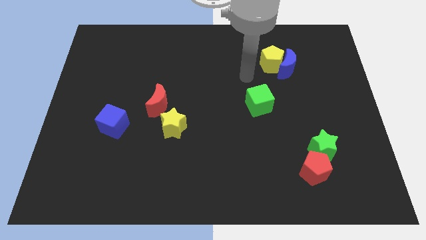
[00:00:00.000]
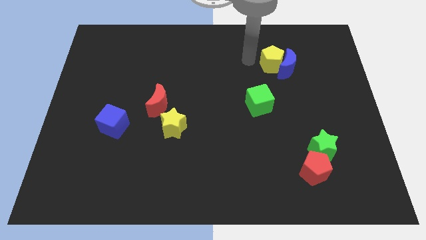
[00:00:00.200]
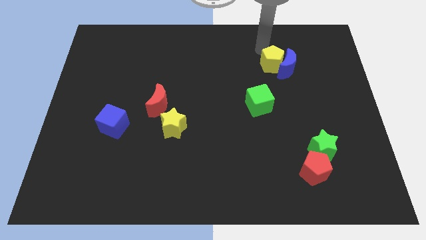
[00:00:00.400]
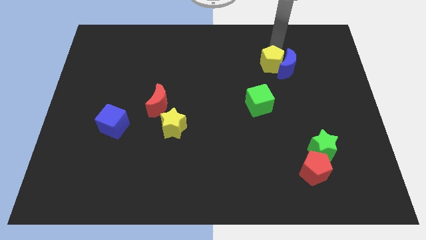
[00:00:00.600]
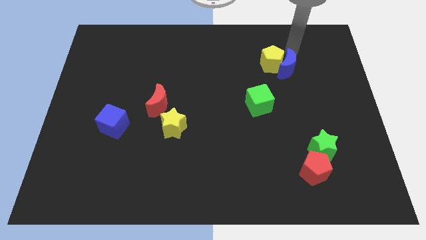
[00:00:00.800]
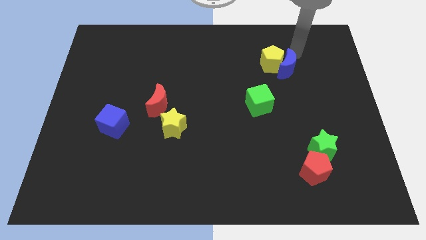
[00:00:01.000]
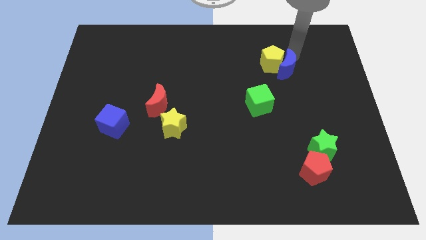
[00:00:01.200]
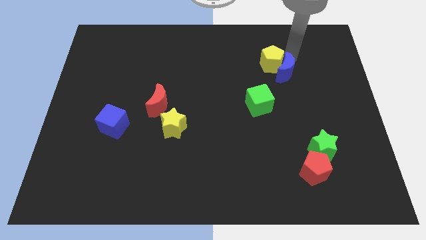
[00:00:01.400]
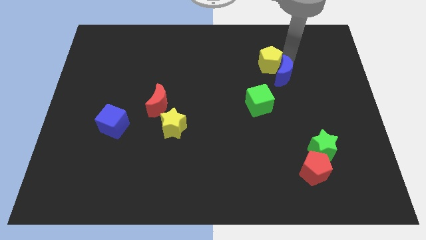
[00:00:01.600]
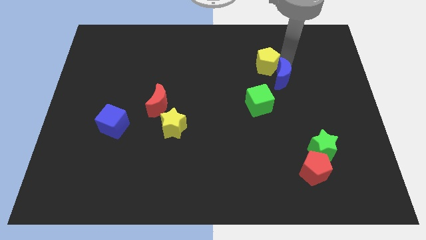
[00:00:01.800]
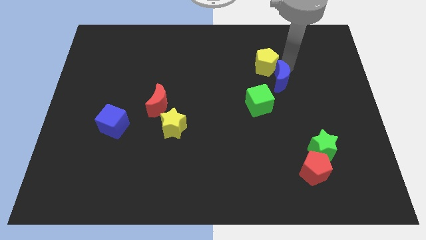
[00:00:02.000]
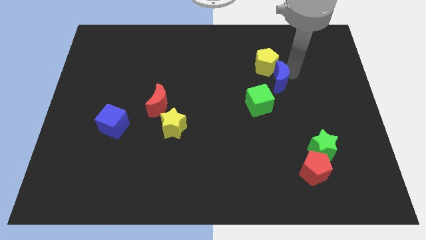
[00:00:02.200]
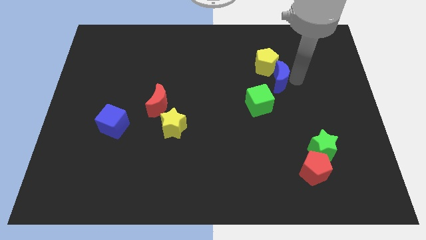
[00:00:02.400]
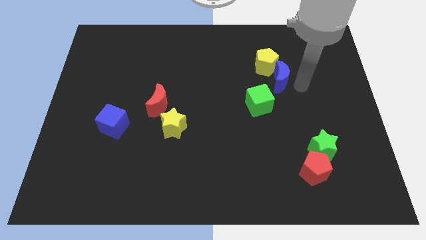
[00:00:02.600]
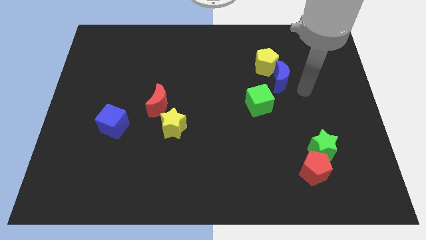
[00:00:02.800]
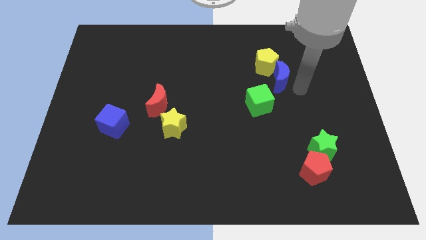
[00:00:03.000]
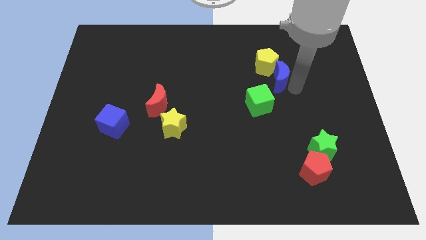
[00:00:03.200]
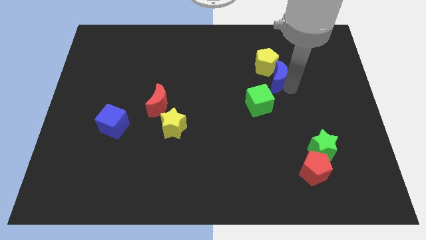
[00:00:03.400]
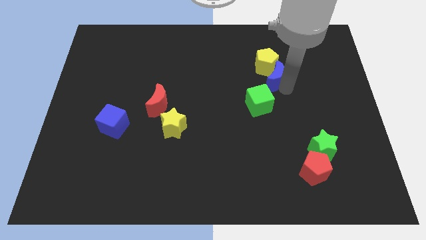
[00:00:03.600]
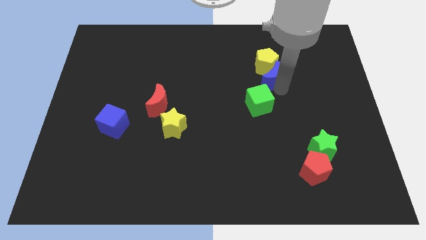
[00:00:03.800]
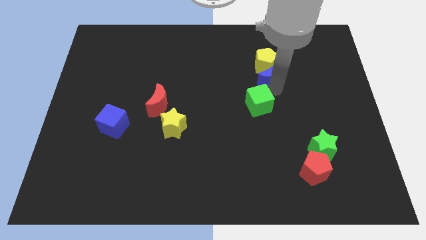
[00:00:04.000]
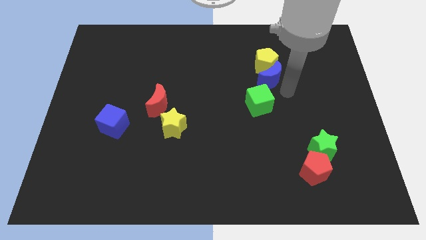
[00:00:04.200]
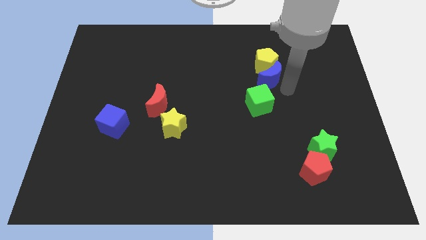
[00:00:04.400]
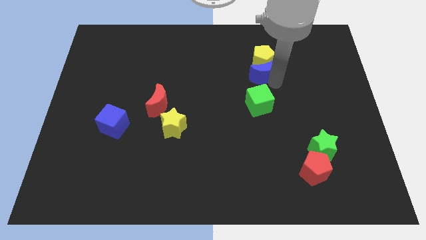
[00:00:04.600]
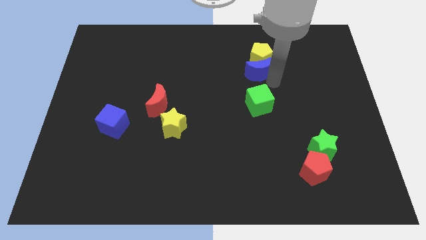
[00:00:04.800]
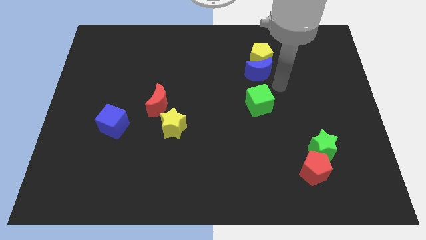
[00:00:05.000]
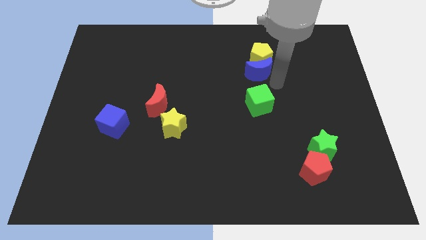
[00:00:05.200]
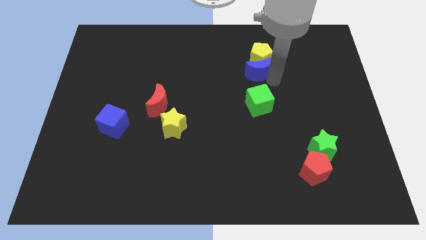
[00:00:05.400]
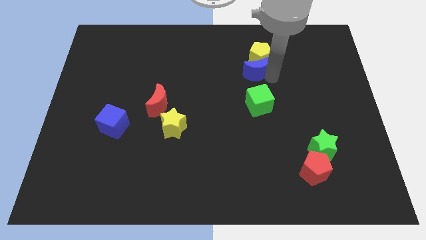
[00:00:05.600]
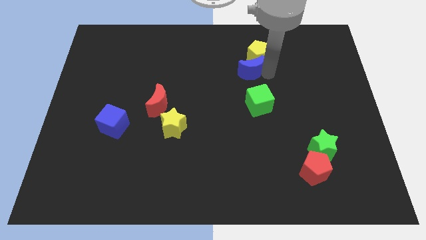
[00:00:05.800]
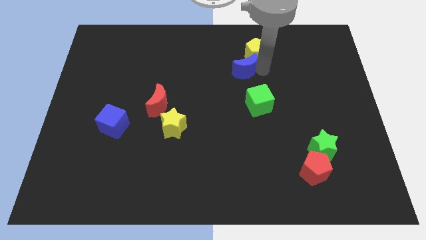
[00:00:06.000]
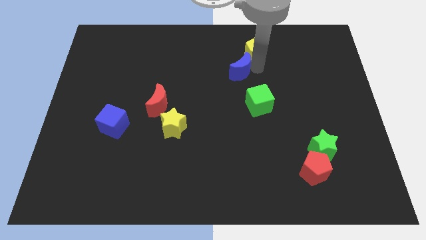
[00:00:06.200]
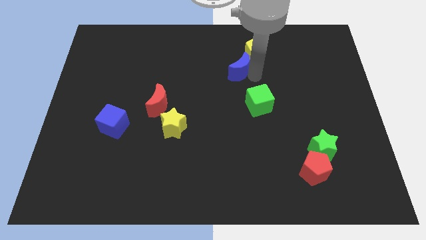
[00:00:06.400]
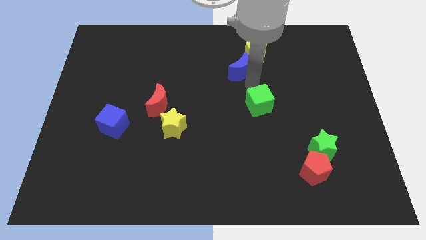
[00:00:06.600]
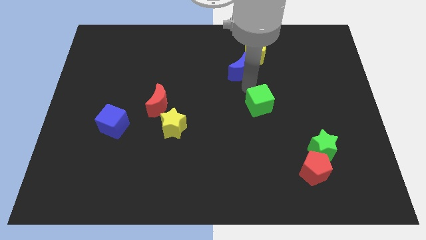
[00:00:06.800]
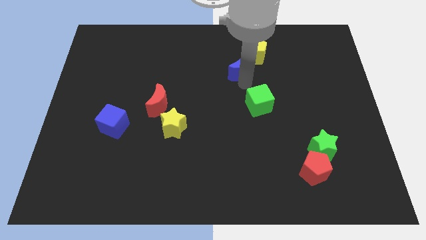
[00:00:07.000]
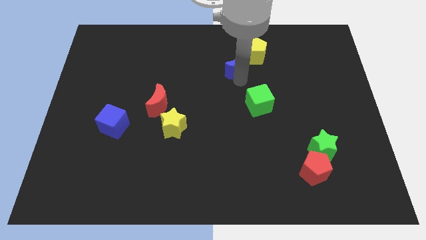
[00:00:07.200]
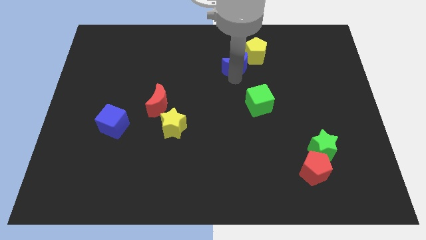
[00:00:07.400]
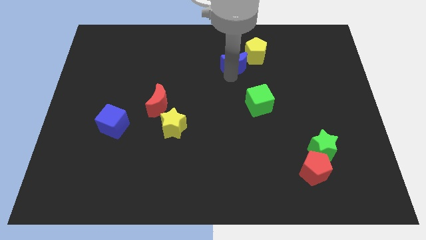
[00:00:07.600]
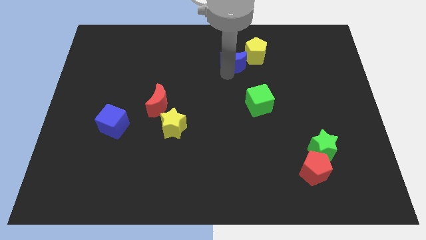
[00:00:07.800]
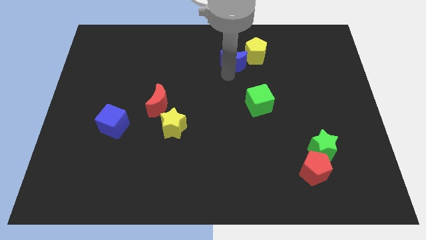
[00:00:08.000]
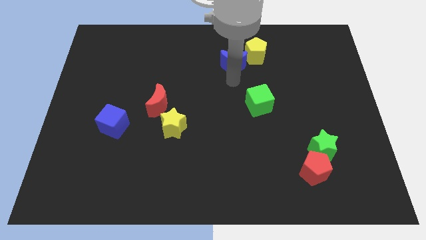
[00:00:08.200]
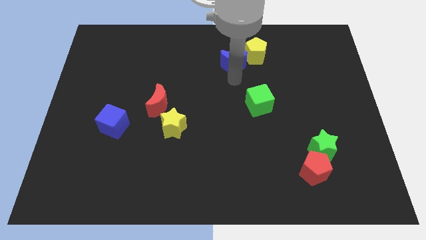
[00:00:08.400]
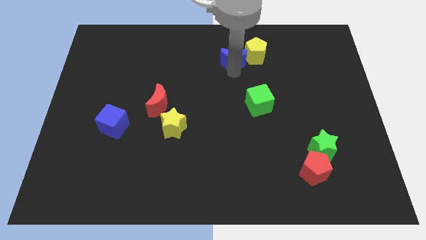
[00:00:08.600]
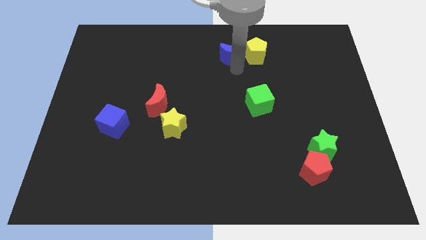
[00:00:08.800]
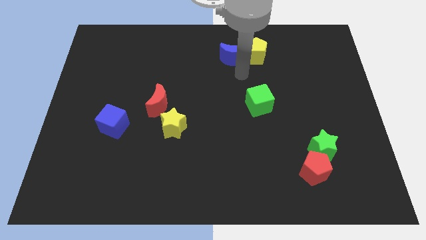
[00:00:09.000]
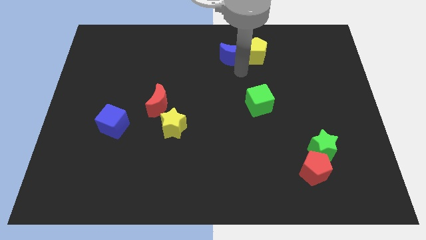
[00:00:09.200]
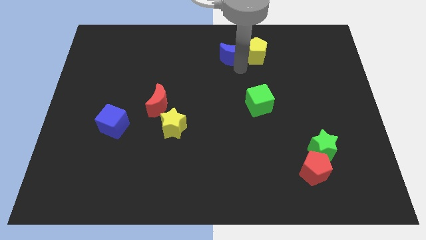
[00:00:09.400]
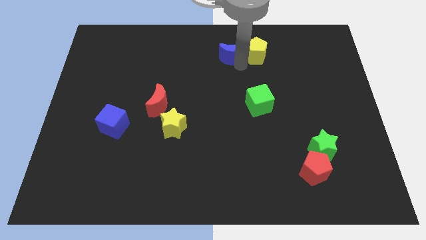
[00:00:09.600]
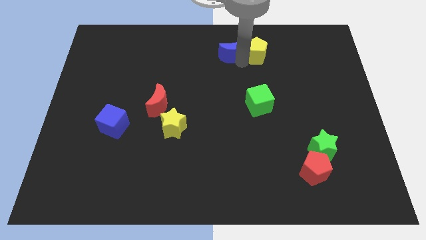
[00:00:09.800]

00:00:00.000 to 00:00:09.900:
put the blue moon to the top

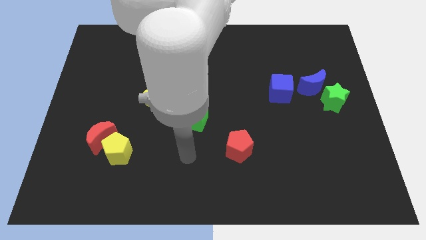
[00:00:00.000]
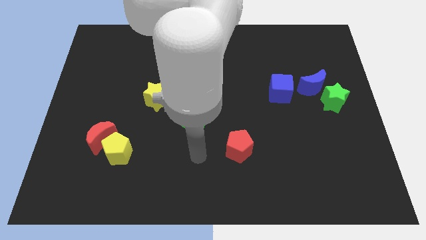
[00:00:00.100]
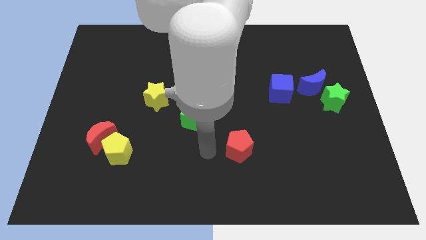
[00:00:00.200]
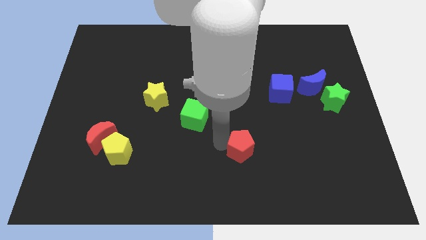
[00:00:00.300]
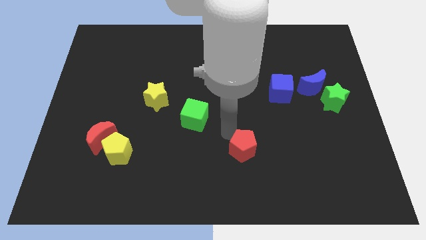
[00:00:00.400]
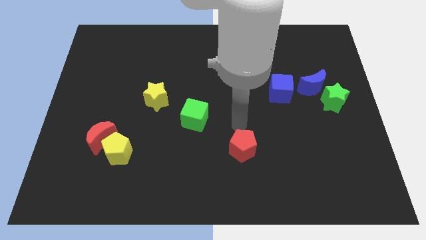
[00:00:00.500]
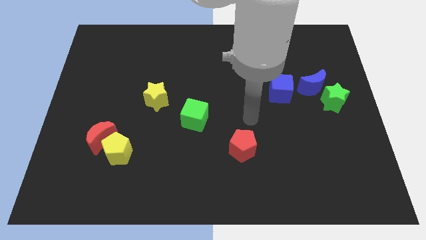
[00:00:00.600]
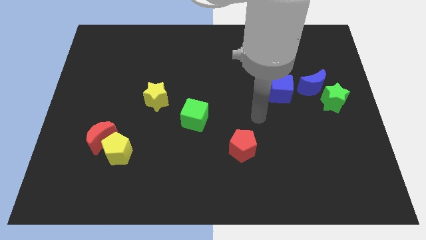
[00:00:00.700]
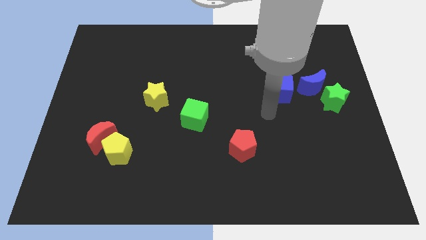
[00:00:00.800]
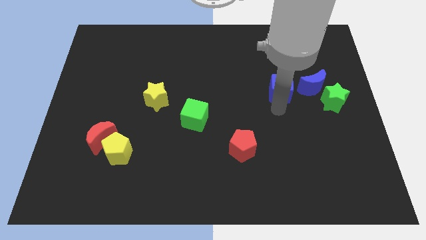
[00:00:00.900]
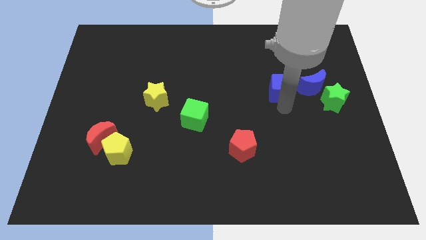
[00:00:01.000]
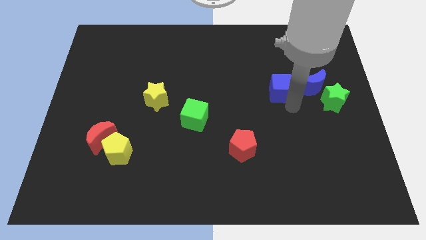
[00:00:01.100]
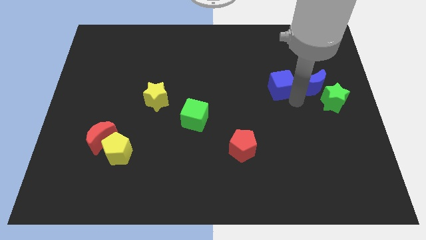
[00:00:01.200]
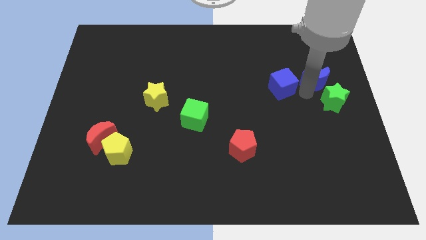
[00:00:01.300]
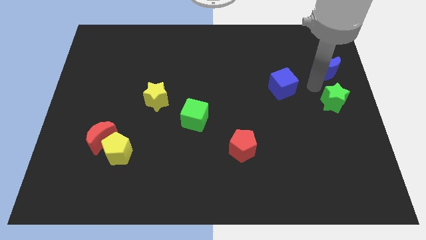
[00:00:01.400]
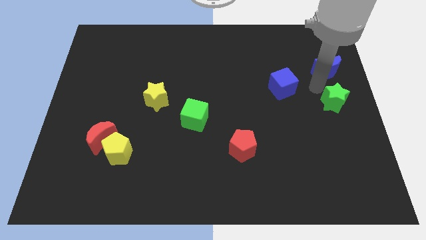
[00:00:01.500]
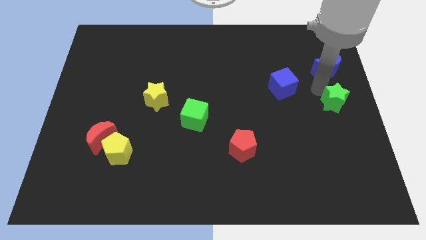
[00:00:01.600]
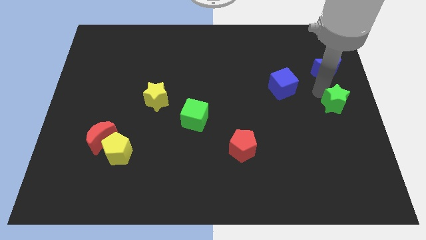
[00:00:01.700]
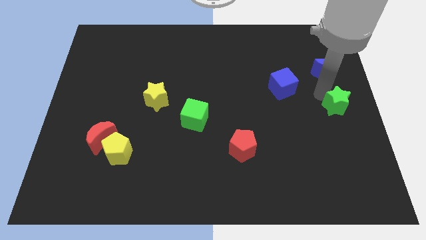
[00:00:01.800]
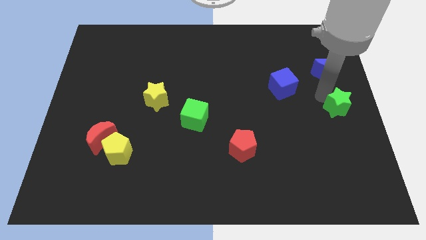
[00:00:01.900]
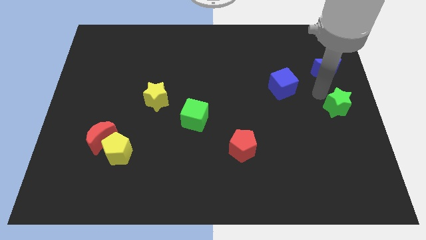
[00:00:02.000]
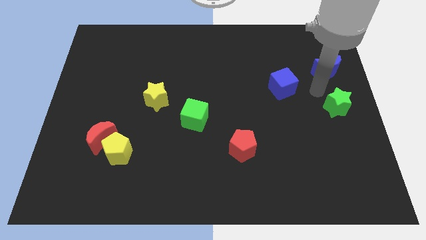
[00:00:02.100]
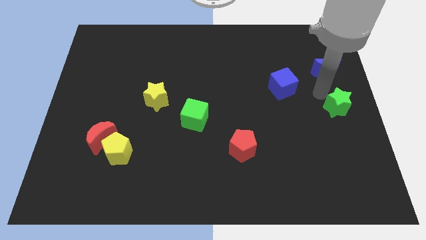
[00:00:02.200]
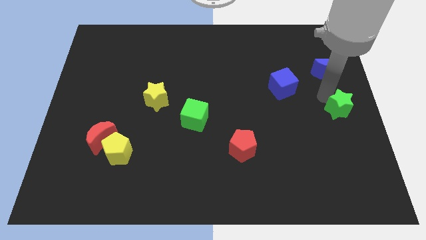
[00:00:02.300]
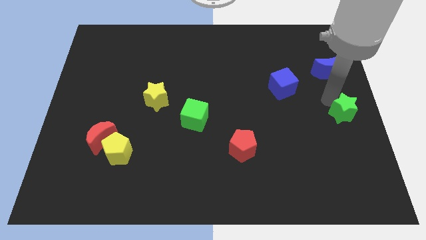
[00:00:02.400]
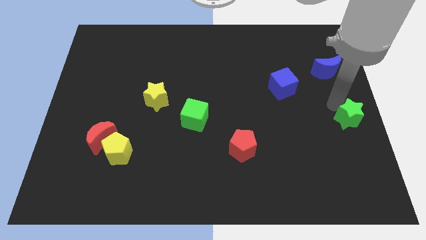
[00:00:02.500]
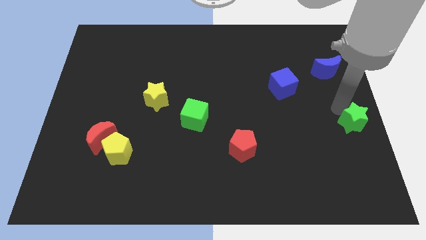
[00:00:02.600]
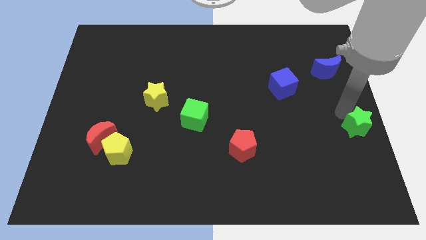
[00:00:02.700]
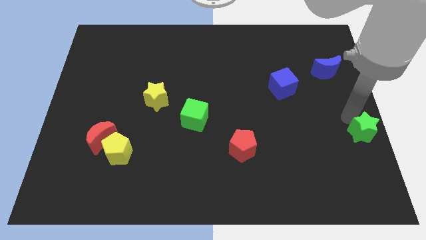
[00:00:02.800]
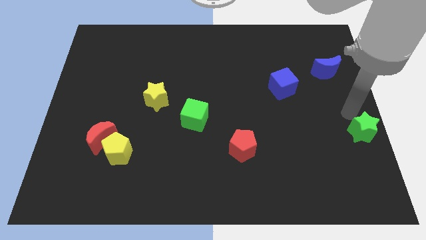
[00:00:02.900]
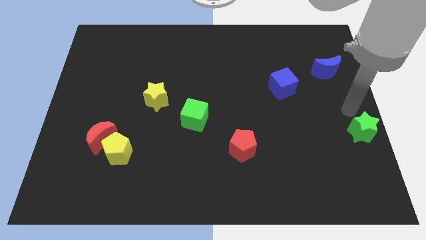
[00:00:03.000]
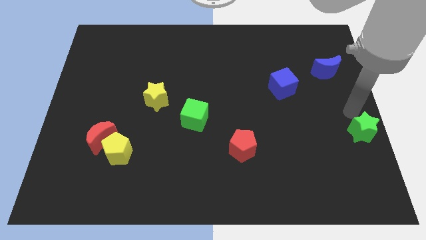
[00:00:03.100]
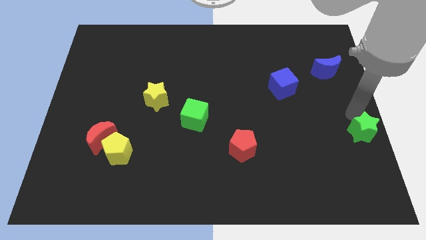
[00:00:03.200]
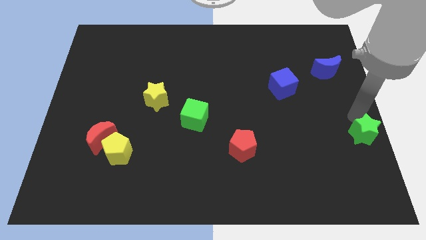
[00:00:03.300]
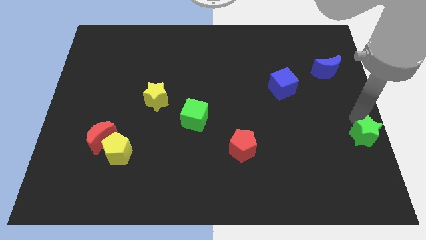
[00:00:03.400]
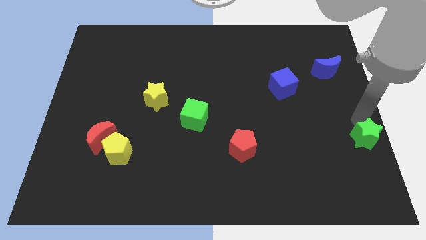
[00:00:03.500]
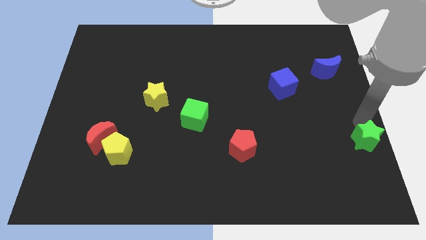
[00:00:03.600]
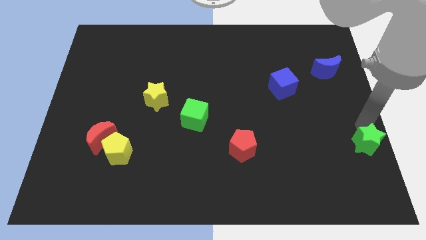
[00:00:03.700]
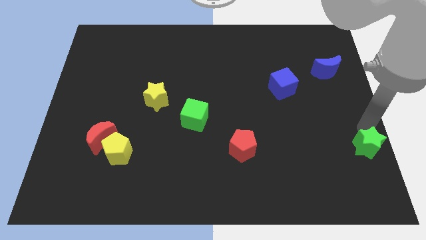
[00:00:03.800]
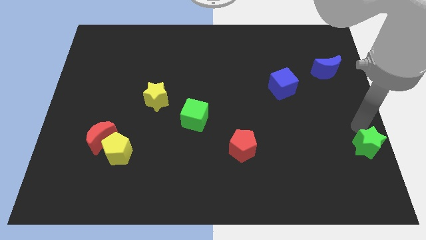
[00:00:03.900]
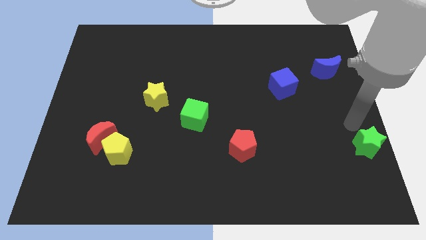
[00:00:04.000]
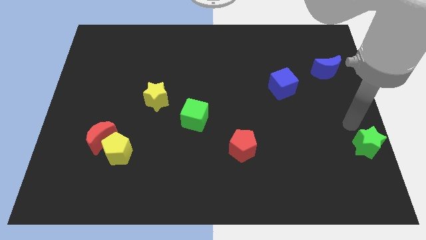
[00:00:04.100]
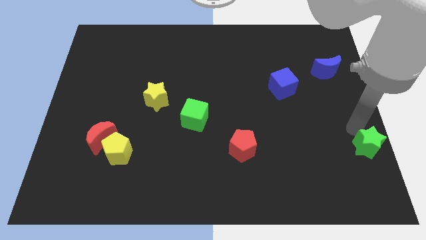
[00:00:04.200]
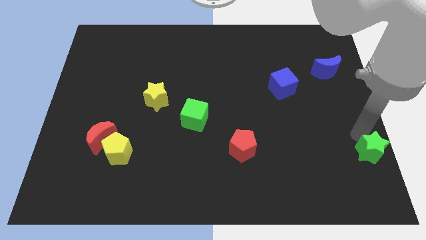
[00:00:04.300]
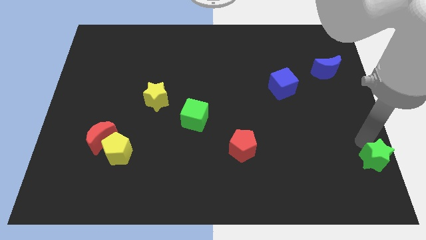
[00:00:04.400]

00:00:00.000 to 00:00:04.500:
slide the green star to the bottom right corner
